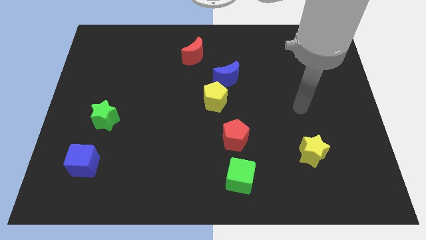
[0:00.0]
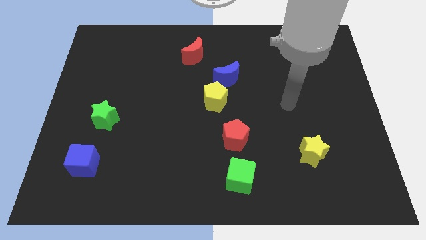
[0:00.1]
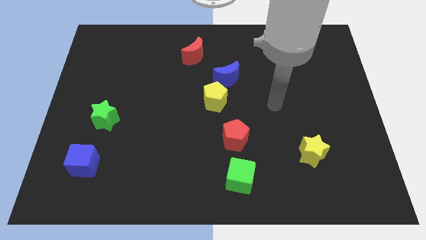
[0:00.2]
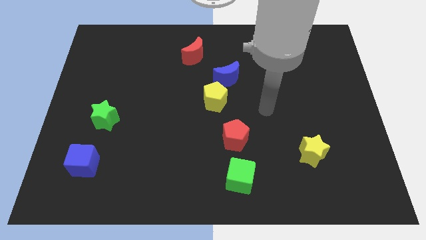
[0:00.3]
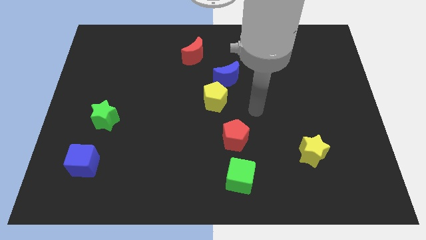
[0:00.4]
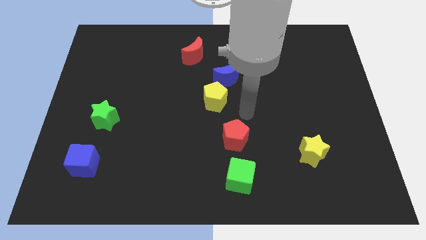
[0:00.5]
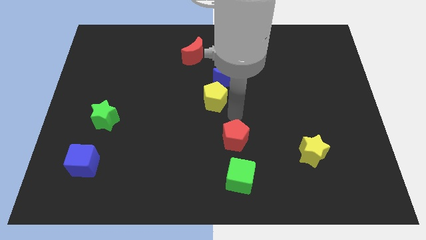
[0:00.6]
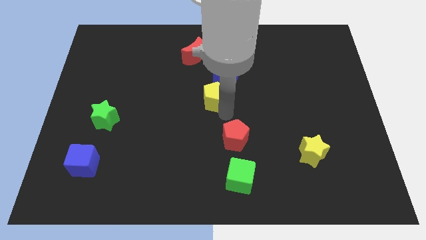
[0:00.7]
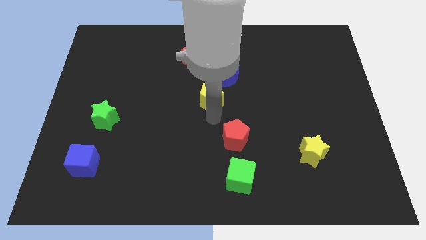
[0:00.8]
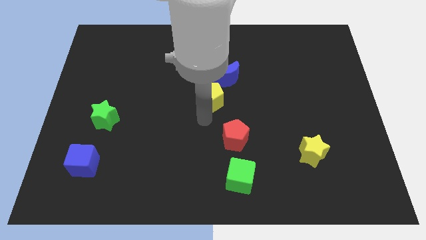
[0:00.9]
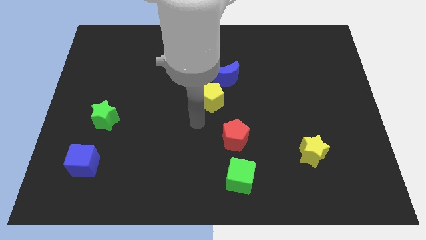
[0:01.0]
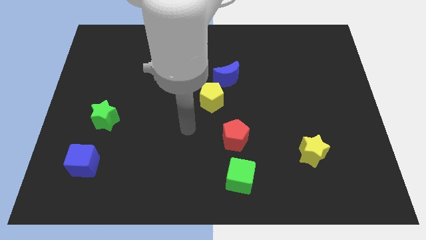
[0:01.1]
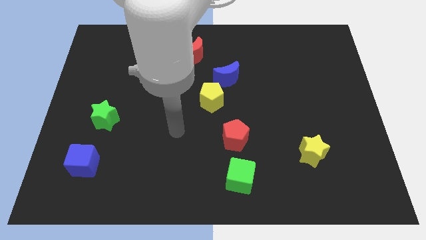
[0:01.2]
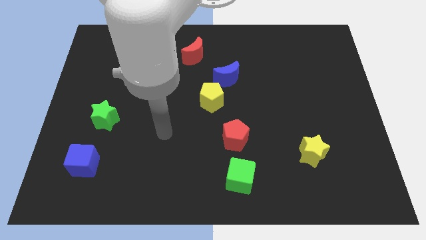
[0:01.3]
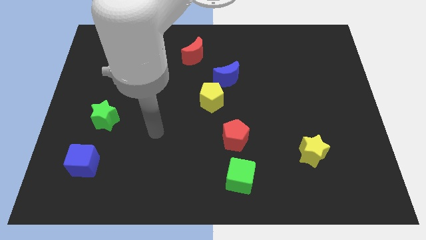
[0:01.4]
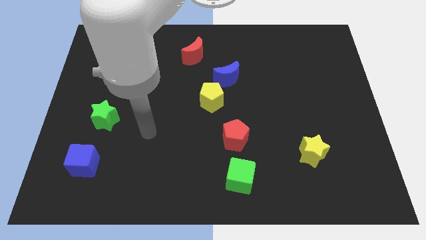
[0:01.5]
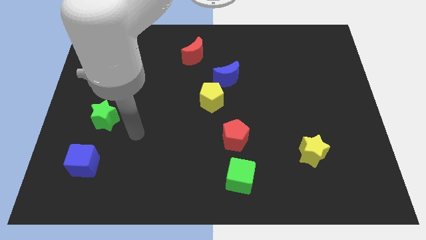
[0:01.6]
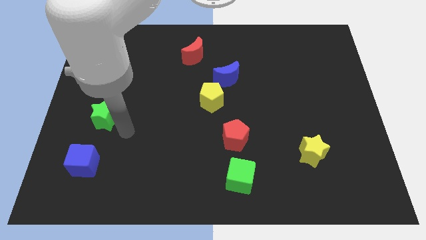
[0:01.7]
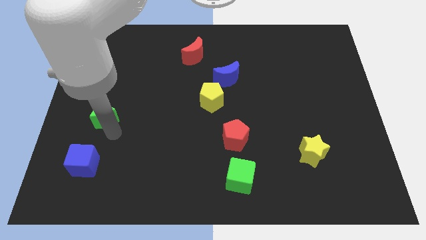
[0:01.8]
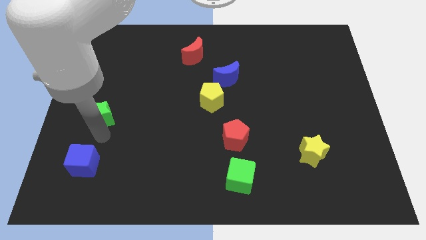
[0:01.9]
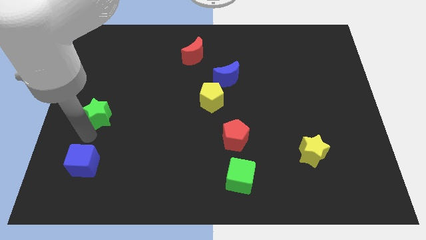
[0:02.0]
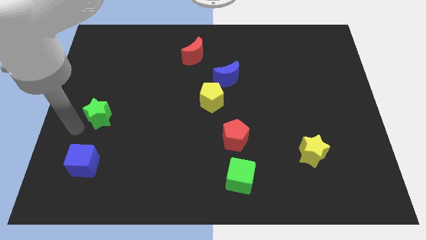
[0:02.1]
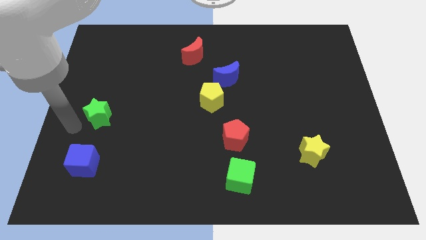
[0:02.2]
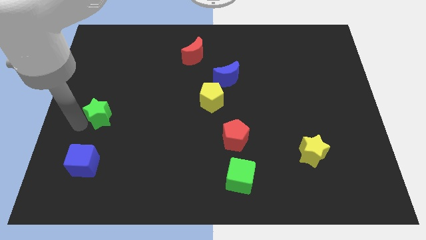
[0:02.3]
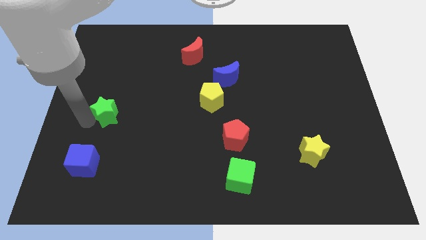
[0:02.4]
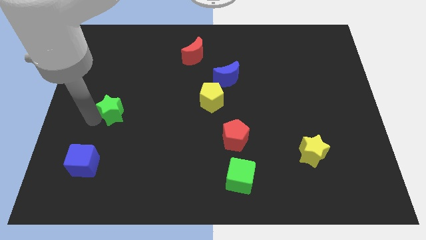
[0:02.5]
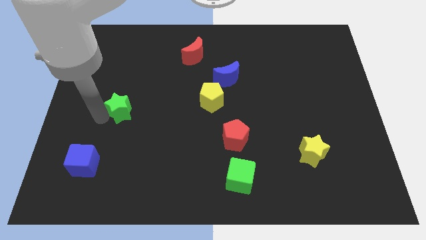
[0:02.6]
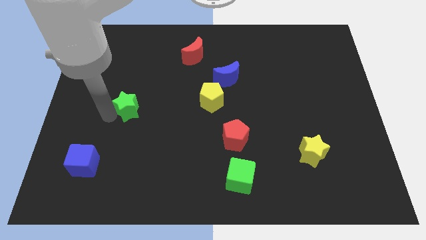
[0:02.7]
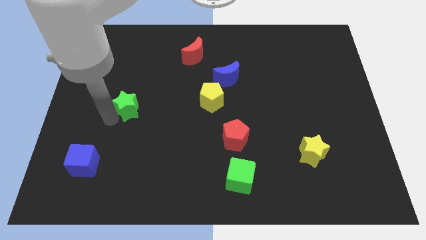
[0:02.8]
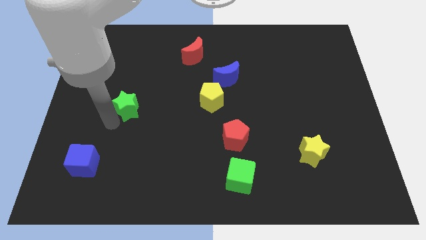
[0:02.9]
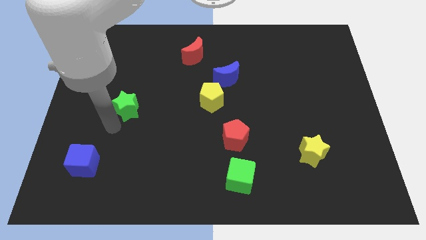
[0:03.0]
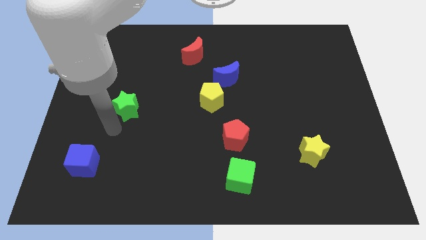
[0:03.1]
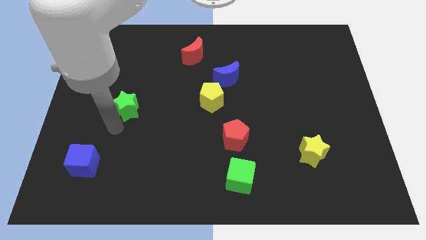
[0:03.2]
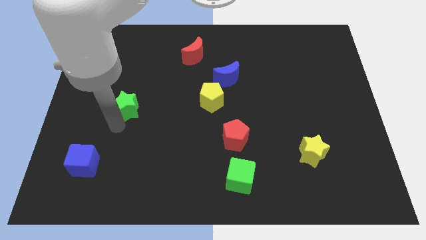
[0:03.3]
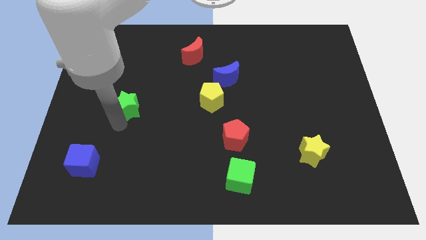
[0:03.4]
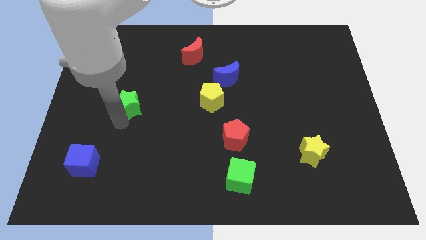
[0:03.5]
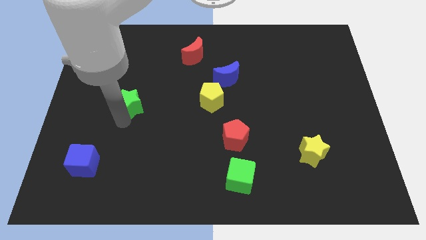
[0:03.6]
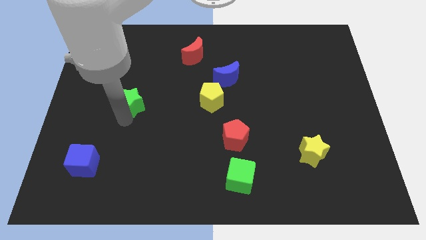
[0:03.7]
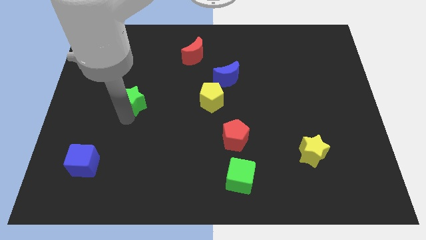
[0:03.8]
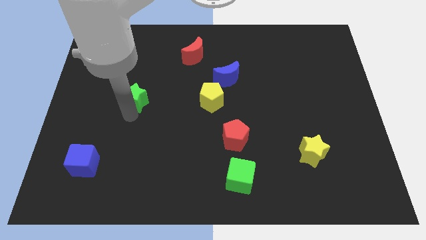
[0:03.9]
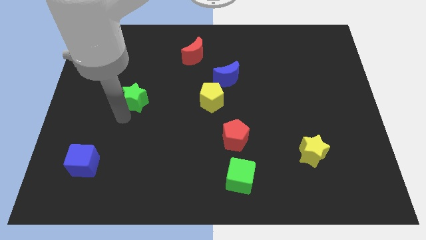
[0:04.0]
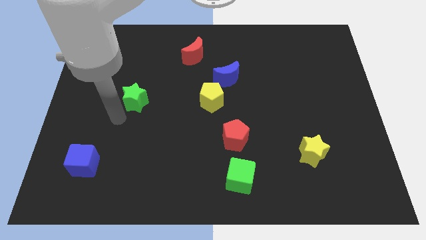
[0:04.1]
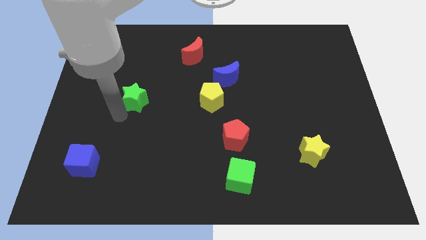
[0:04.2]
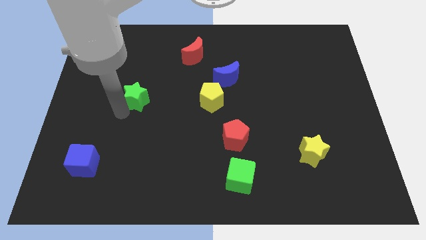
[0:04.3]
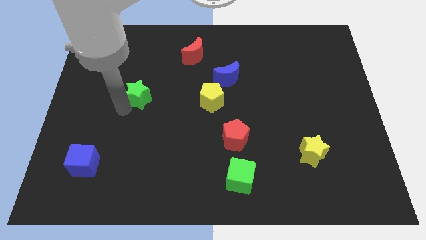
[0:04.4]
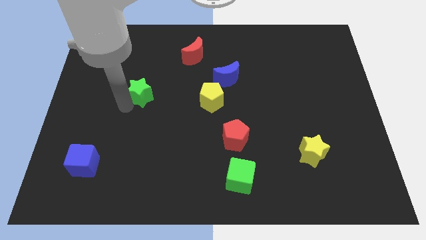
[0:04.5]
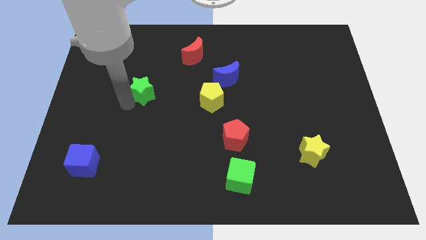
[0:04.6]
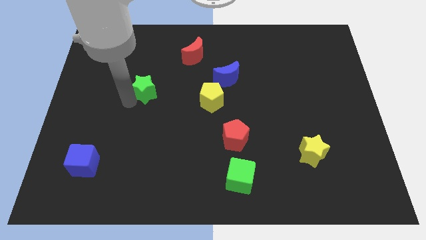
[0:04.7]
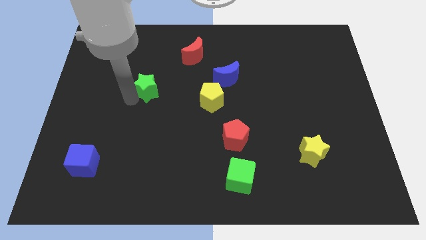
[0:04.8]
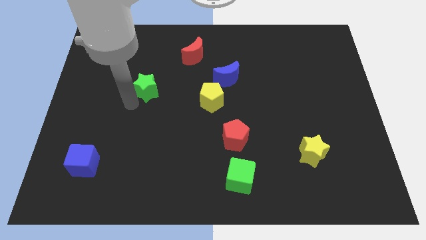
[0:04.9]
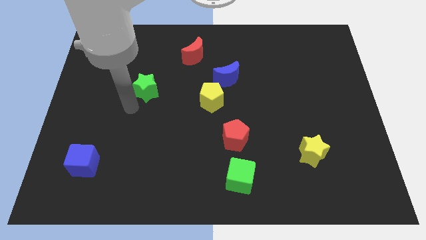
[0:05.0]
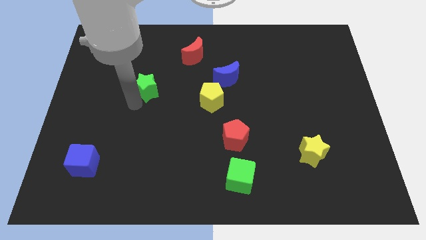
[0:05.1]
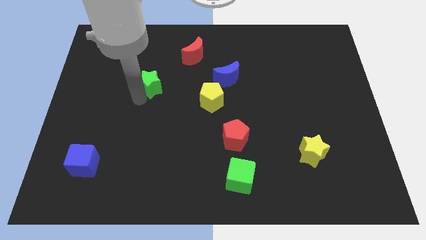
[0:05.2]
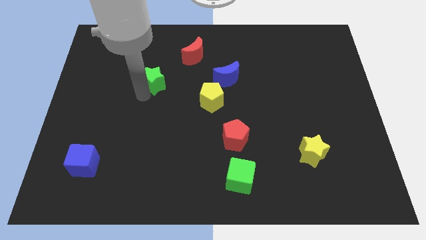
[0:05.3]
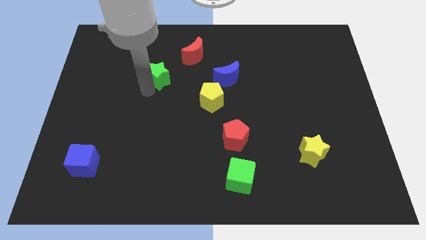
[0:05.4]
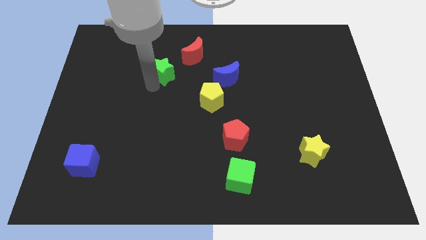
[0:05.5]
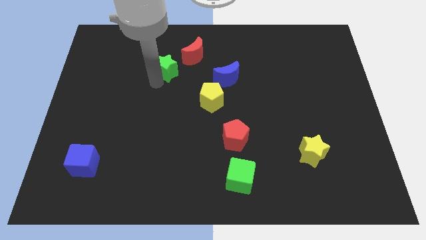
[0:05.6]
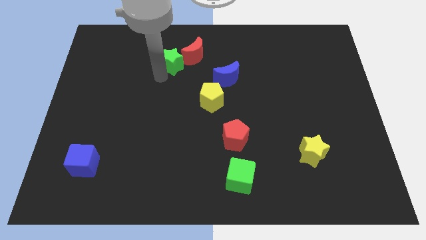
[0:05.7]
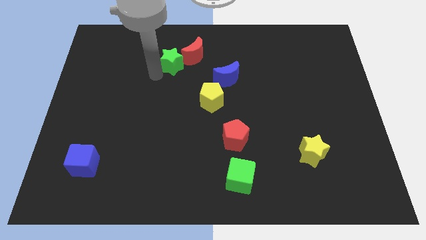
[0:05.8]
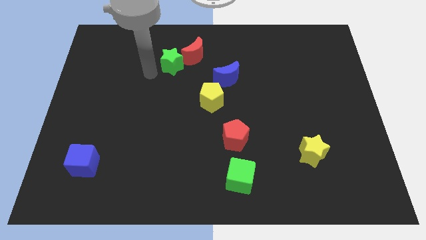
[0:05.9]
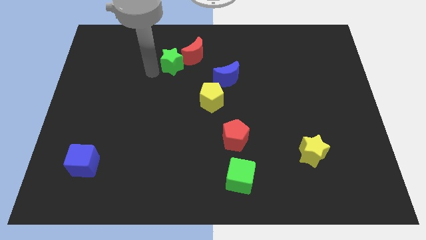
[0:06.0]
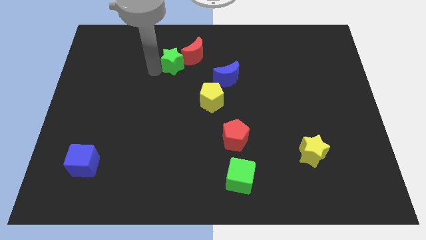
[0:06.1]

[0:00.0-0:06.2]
slide the green star next to the red moon

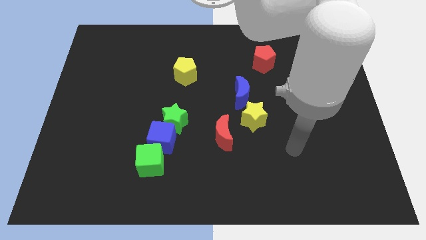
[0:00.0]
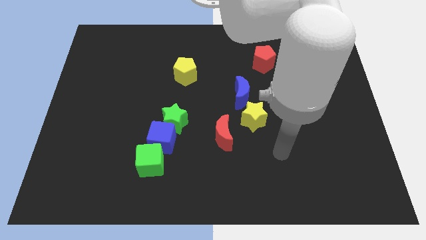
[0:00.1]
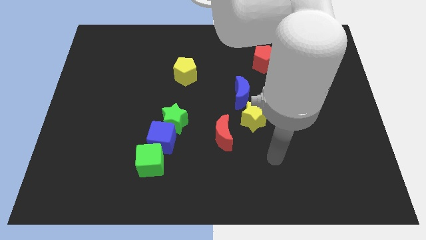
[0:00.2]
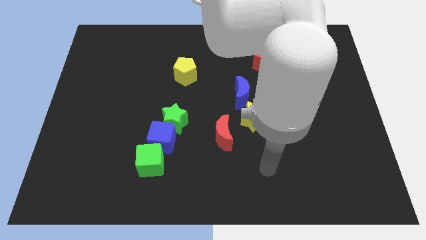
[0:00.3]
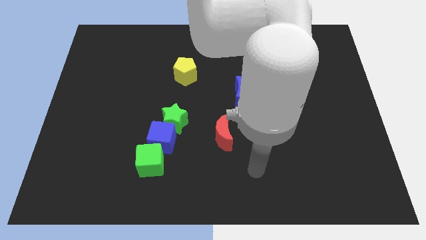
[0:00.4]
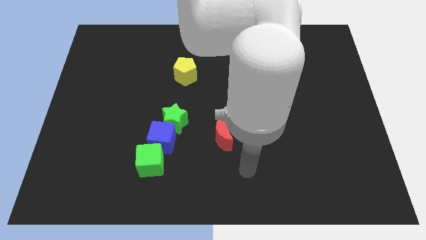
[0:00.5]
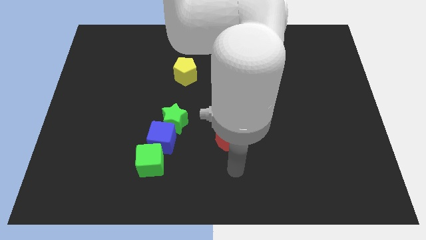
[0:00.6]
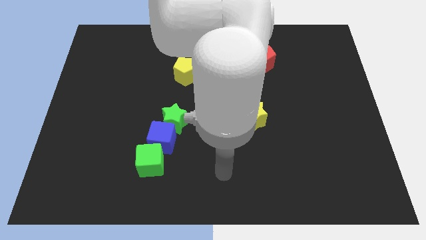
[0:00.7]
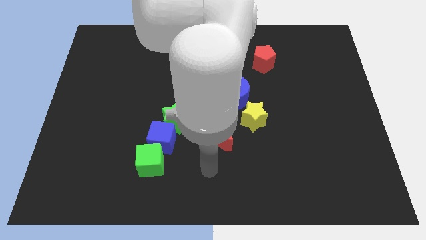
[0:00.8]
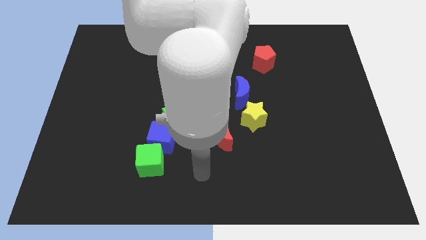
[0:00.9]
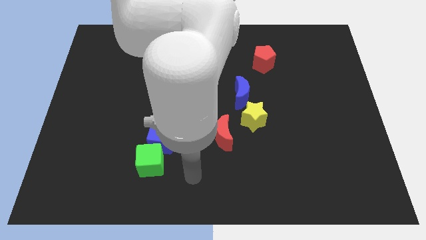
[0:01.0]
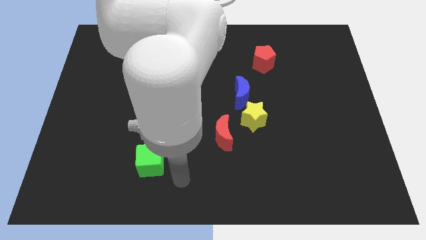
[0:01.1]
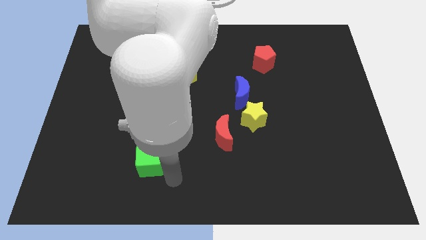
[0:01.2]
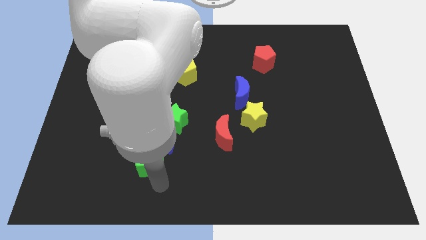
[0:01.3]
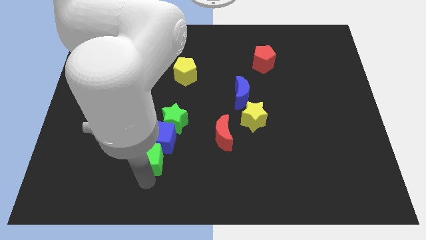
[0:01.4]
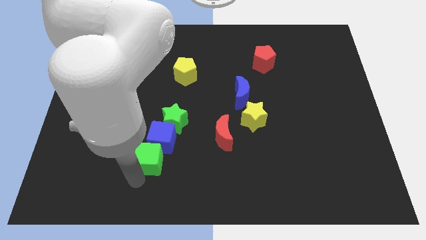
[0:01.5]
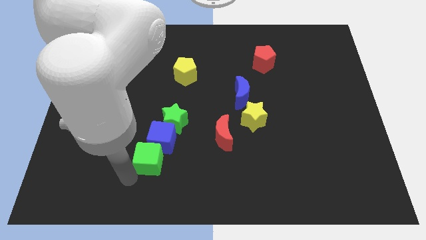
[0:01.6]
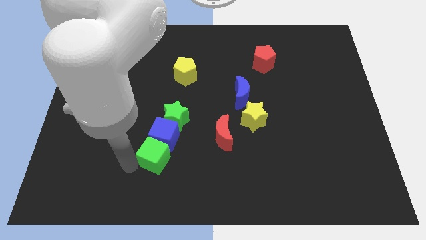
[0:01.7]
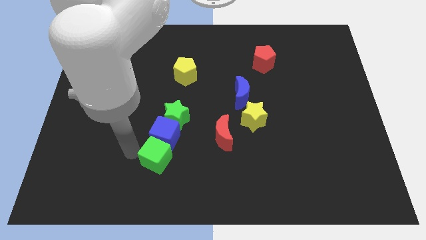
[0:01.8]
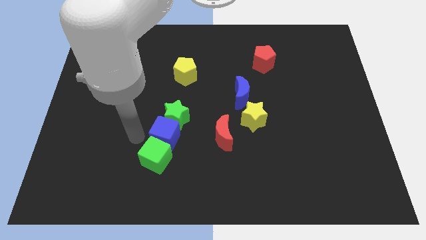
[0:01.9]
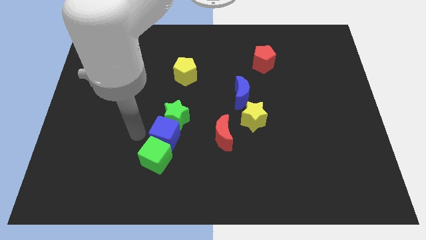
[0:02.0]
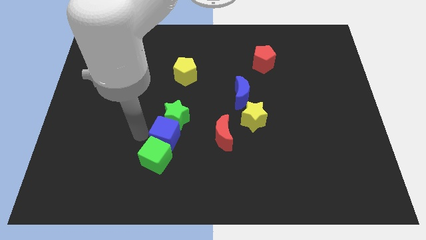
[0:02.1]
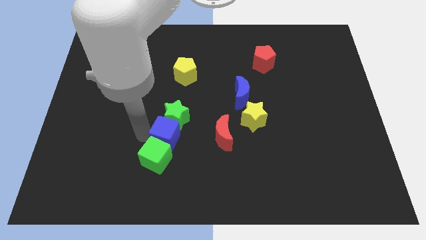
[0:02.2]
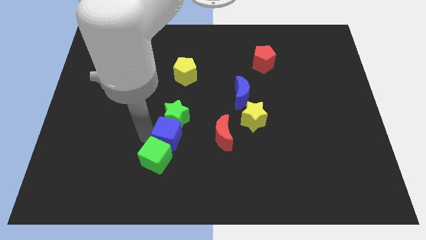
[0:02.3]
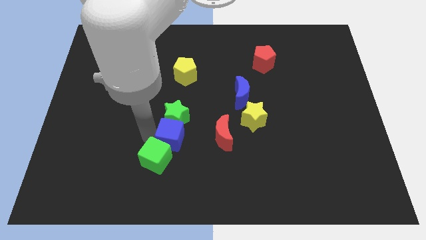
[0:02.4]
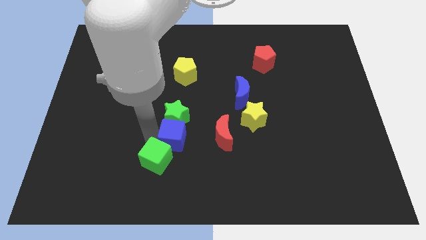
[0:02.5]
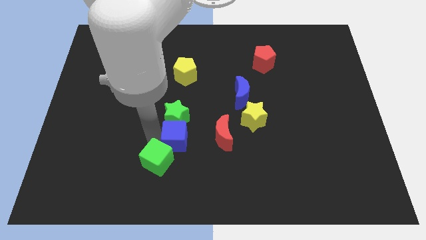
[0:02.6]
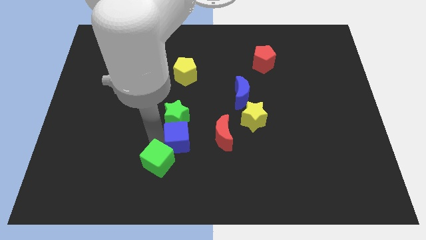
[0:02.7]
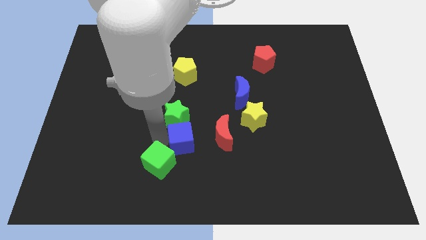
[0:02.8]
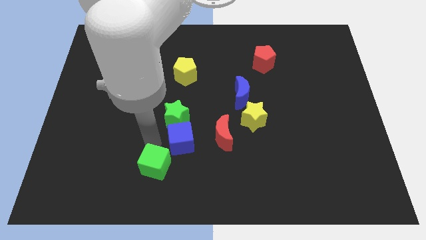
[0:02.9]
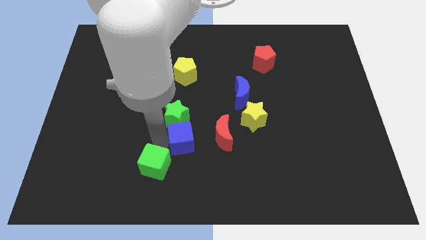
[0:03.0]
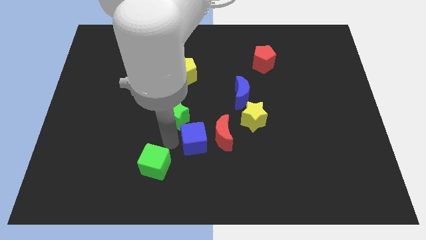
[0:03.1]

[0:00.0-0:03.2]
slide the blue cube towards the red moon
